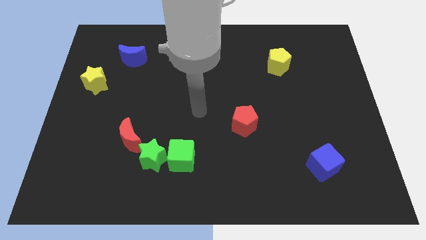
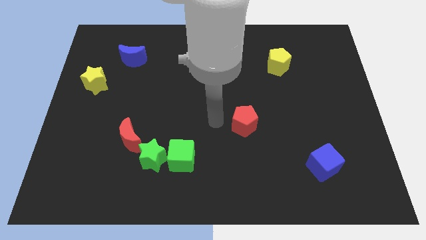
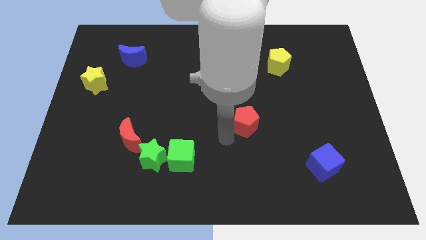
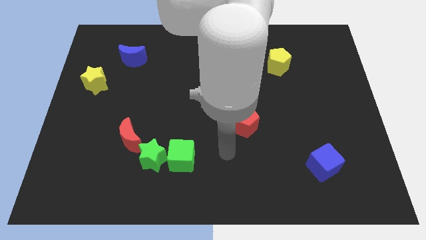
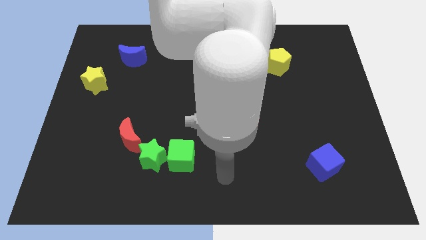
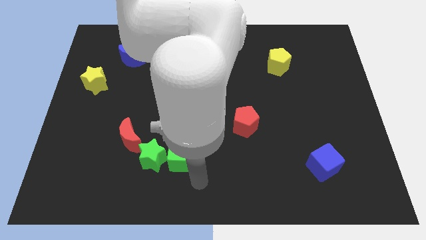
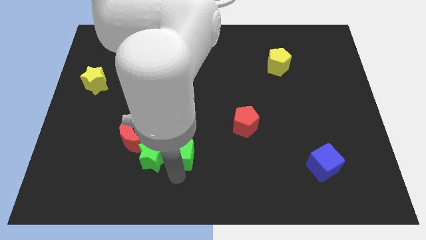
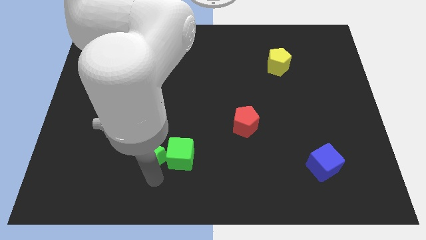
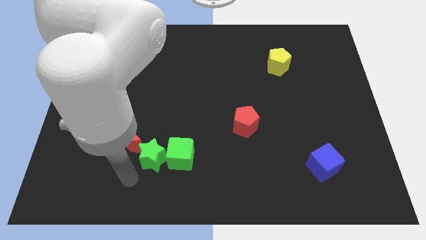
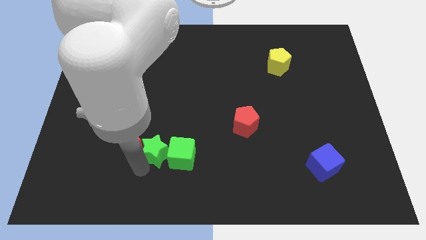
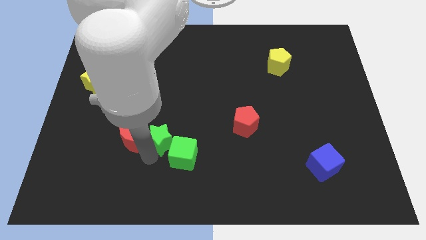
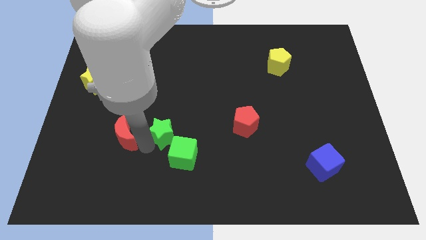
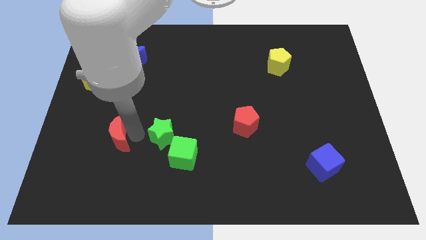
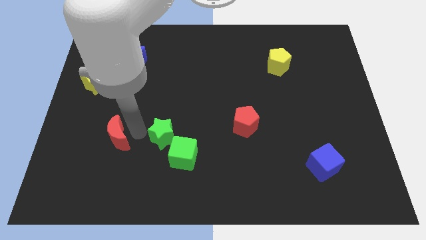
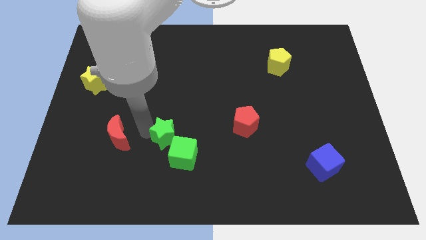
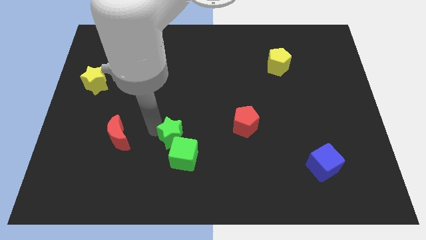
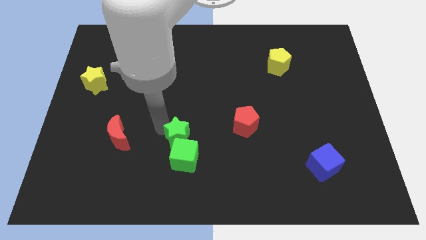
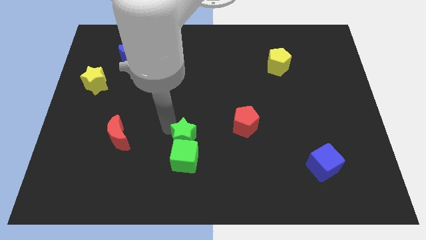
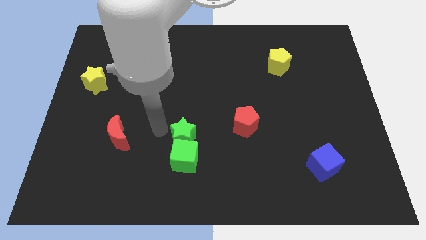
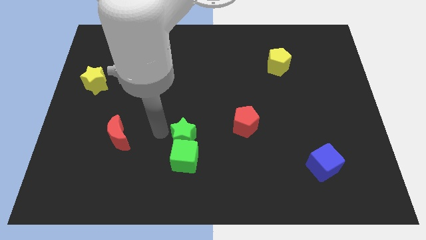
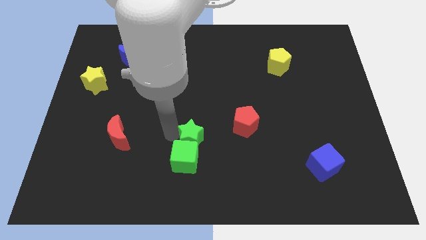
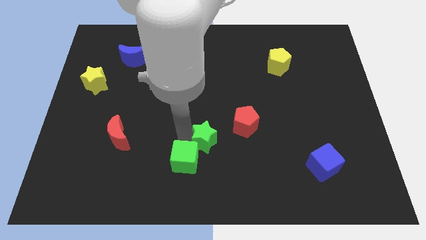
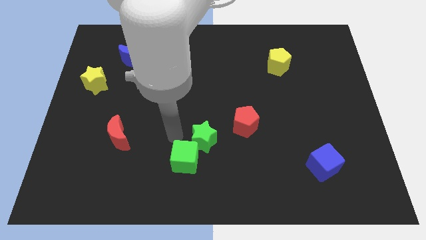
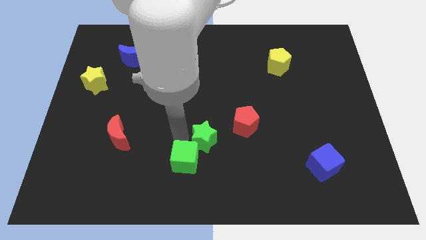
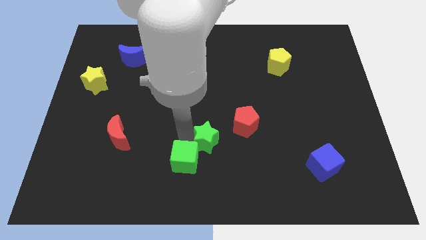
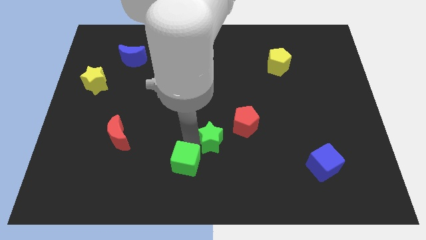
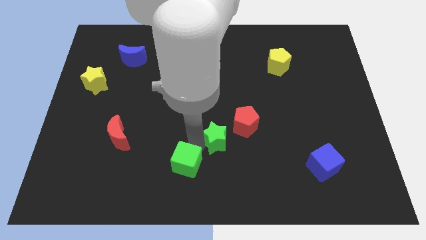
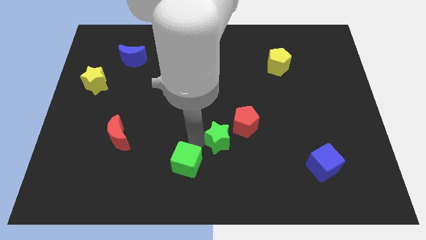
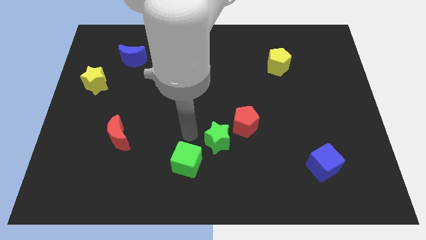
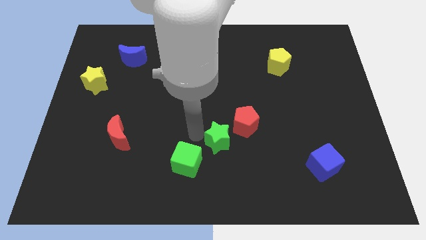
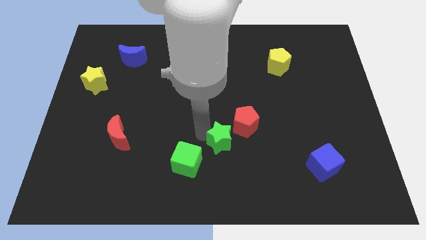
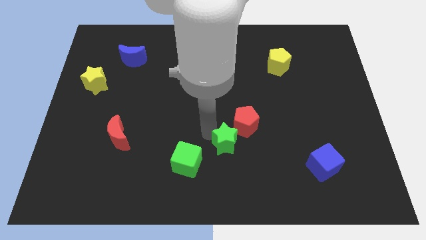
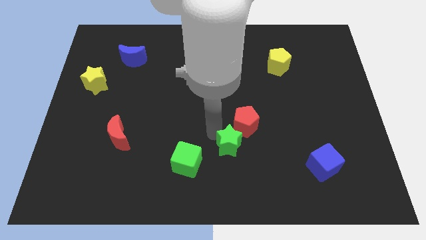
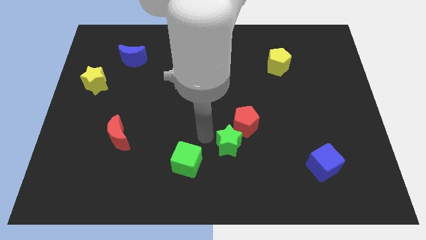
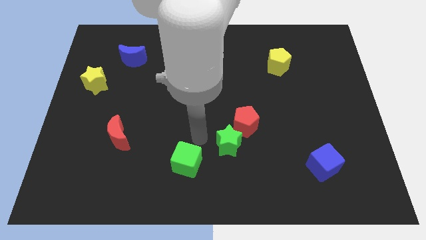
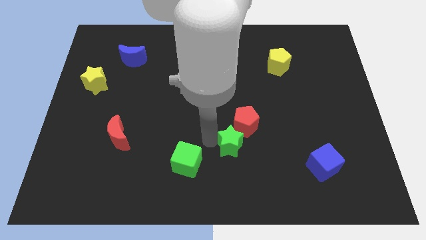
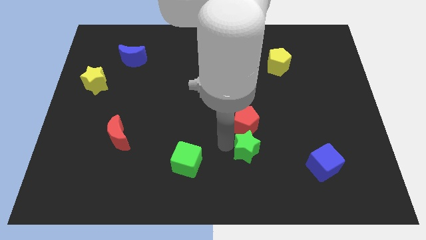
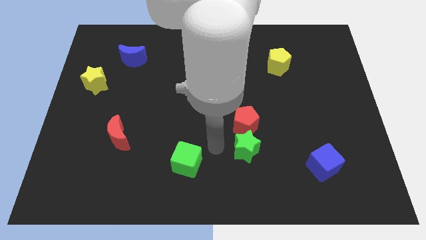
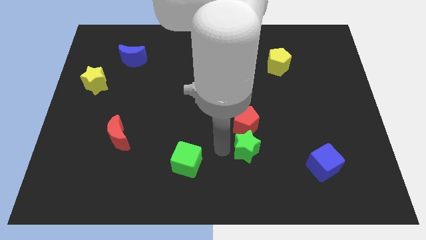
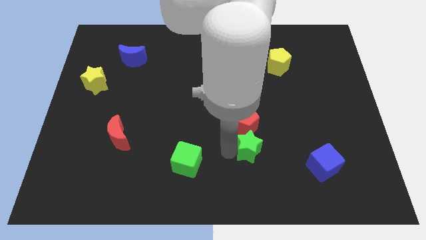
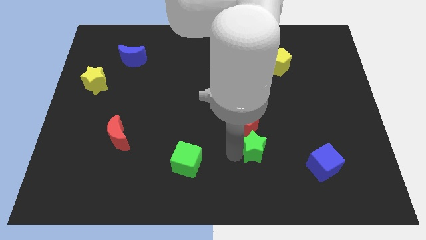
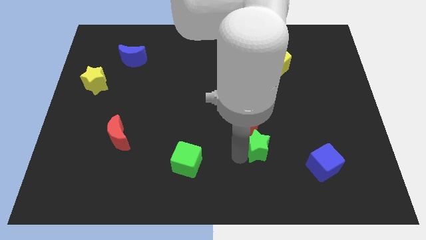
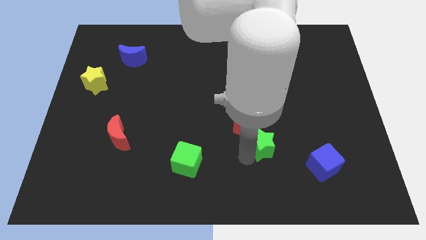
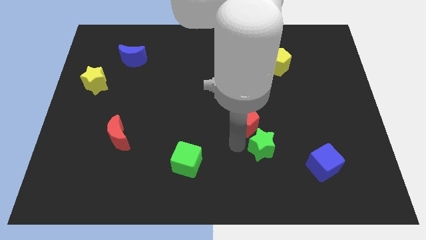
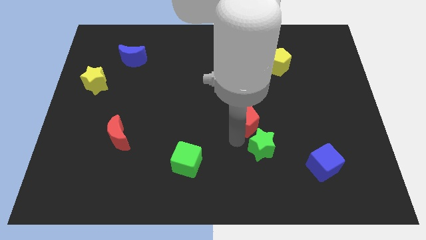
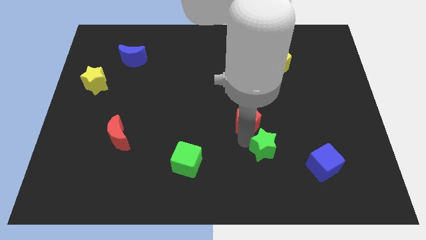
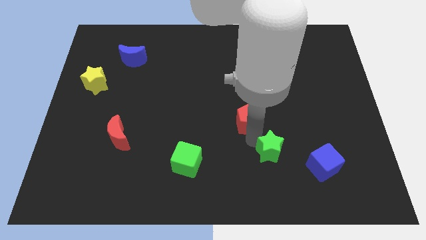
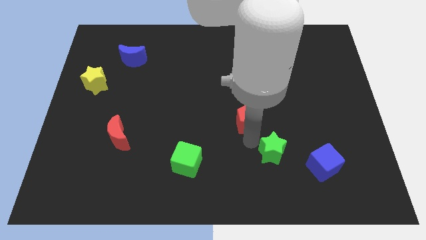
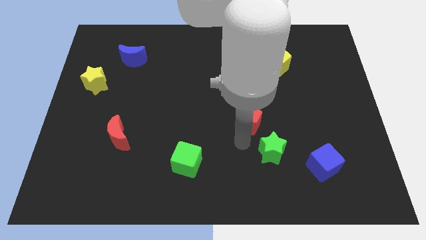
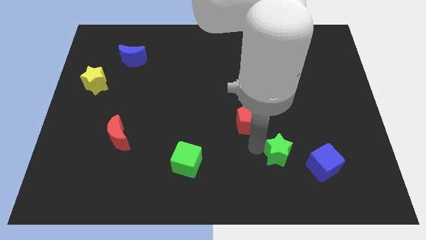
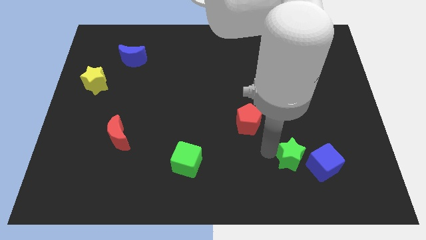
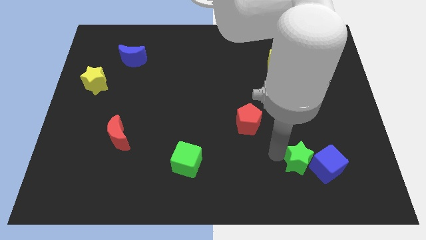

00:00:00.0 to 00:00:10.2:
slide the green star towards the blue cube

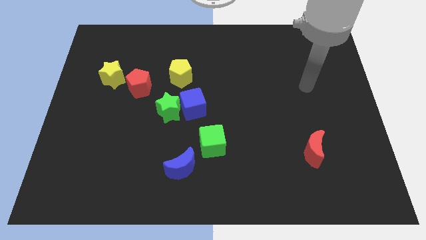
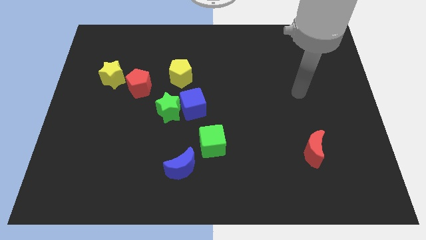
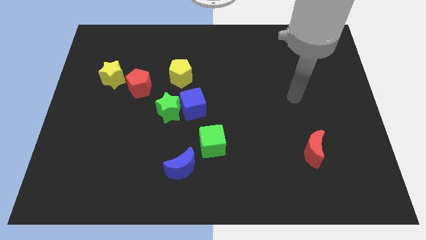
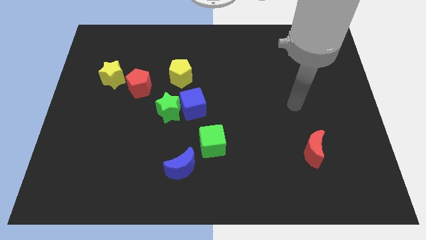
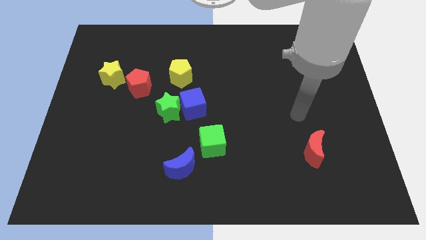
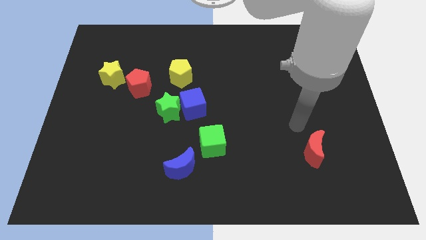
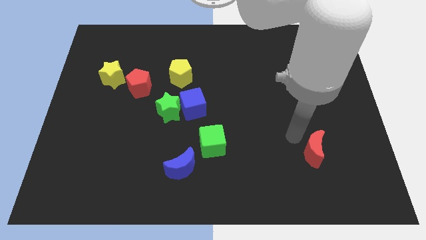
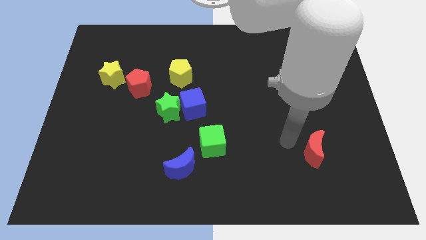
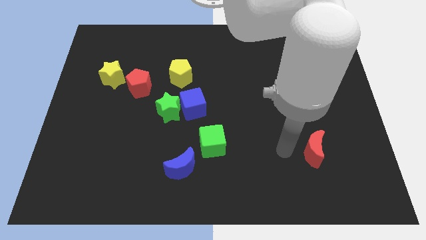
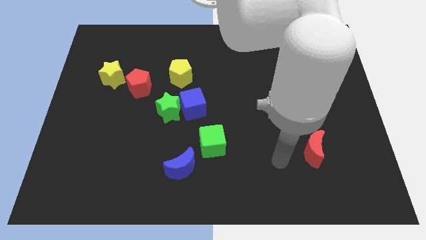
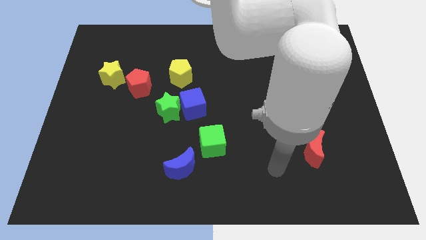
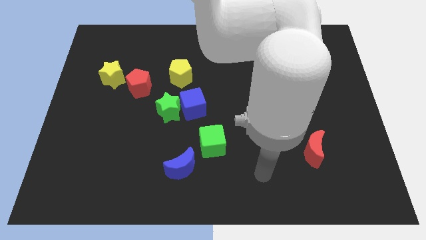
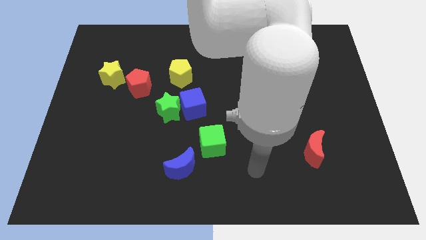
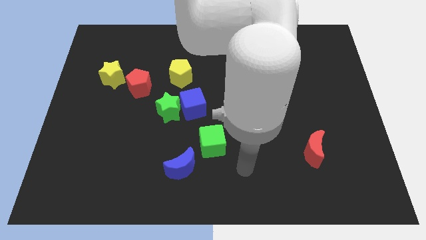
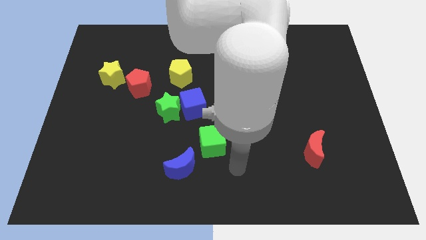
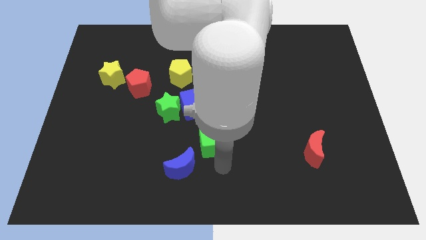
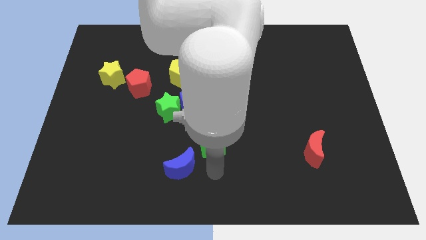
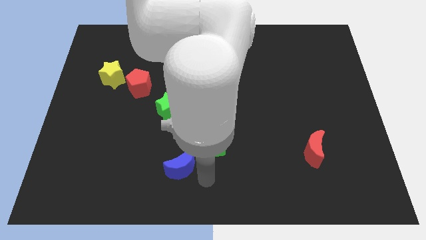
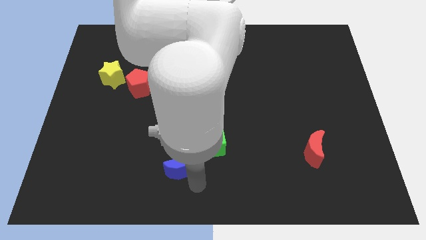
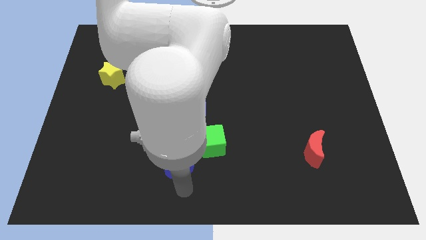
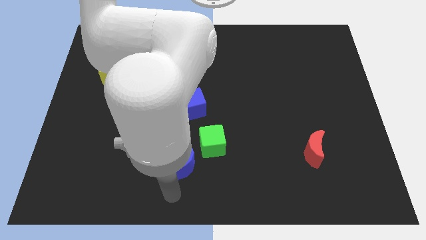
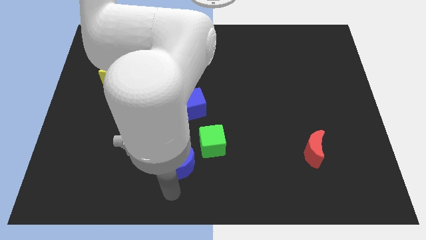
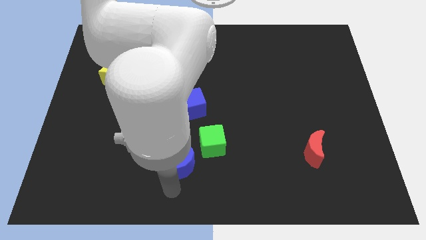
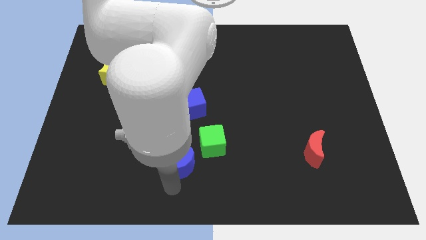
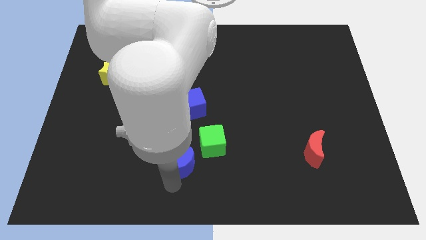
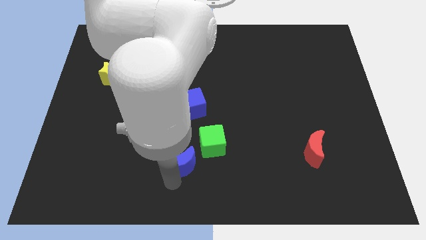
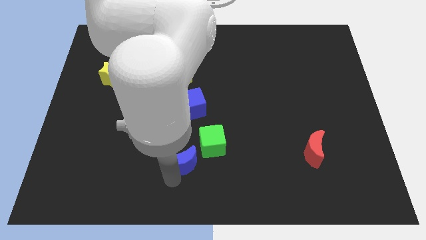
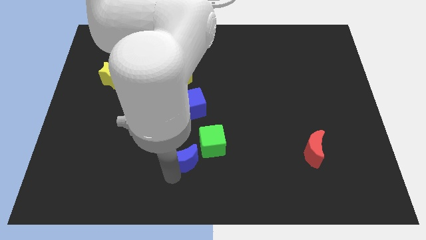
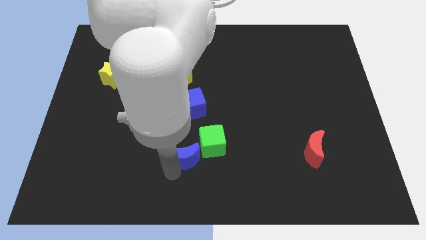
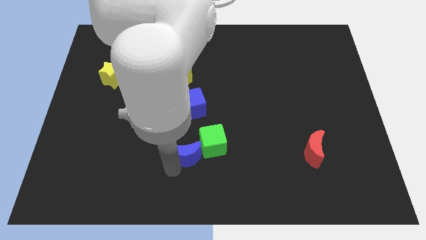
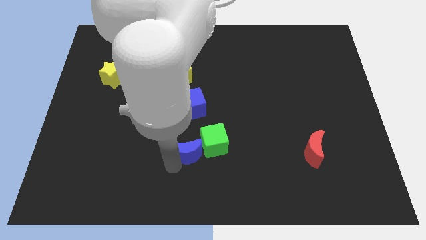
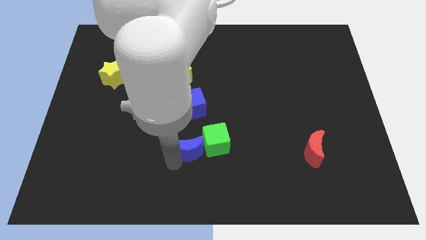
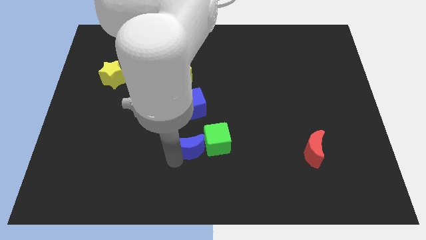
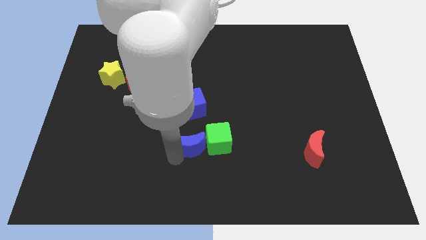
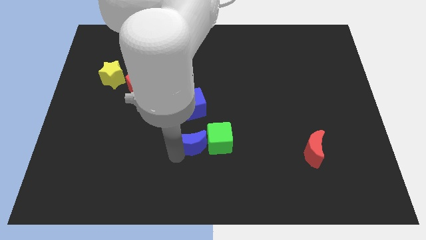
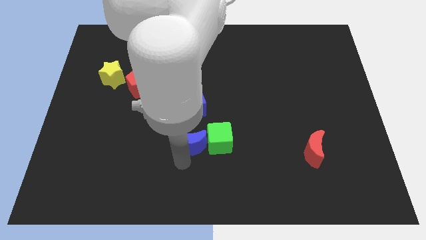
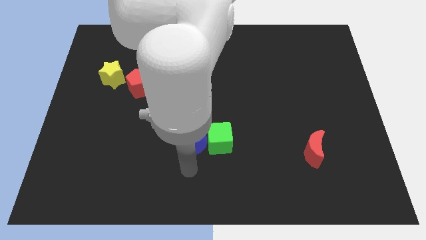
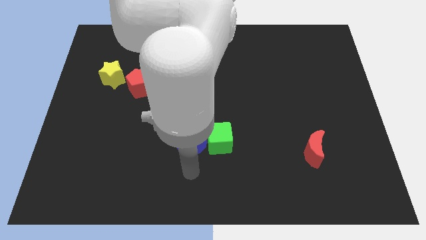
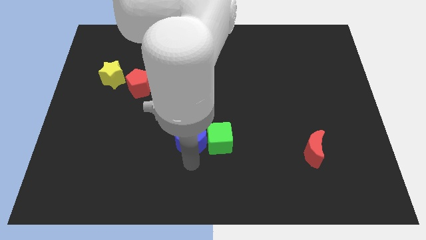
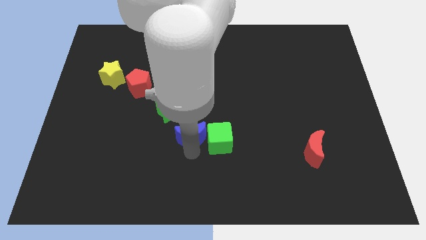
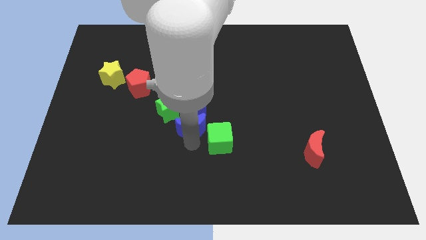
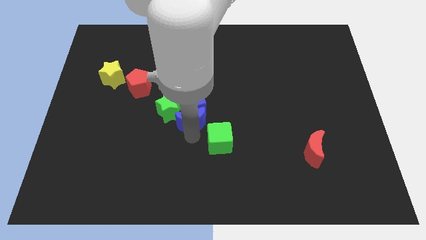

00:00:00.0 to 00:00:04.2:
push the blue moon to the blue cube
